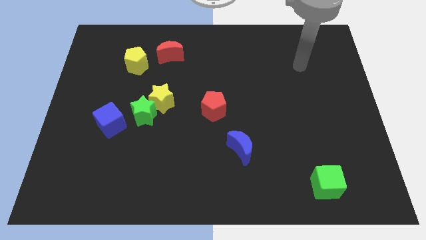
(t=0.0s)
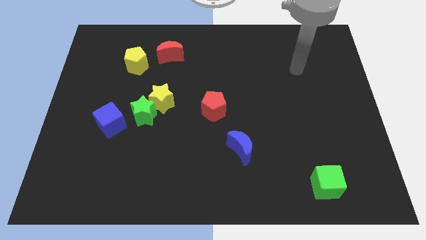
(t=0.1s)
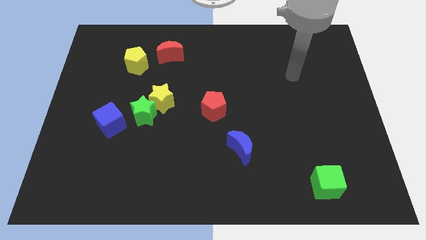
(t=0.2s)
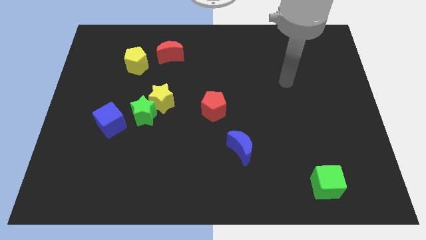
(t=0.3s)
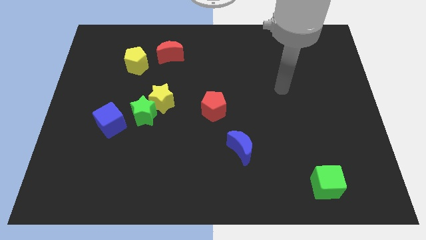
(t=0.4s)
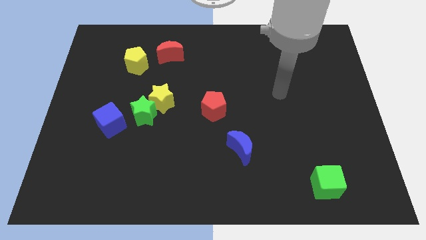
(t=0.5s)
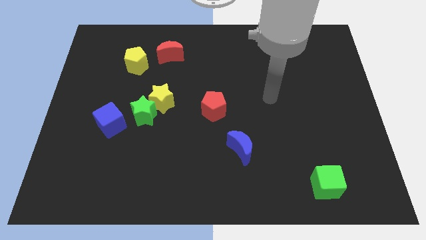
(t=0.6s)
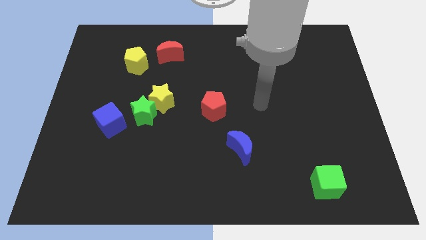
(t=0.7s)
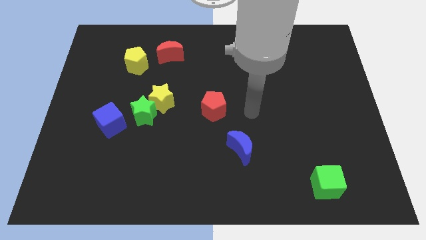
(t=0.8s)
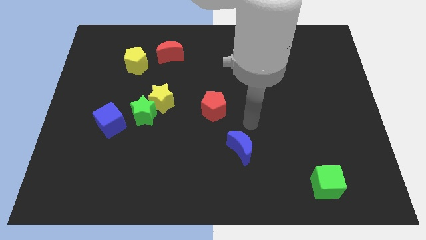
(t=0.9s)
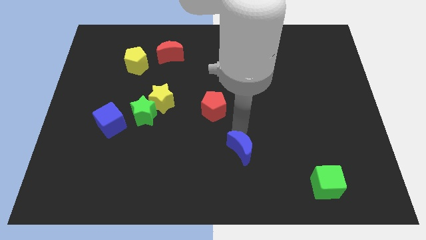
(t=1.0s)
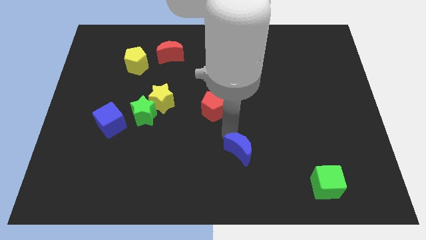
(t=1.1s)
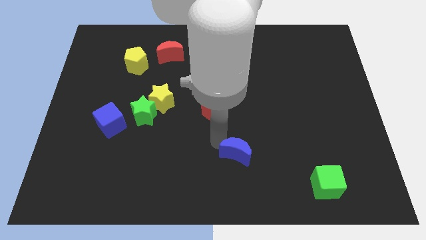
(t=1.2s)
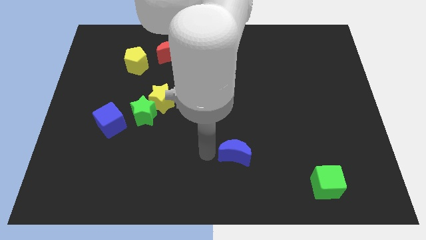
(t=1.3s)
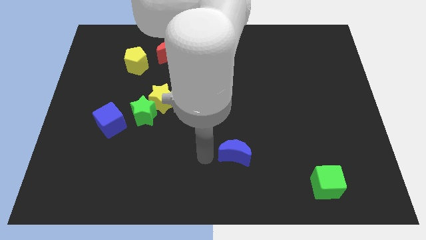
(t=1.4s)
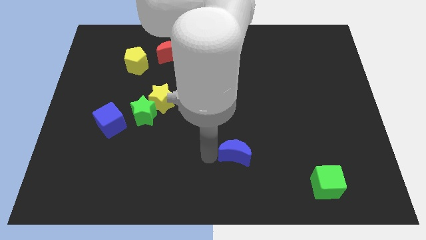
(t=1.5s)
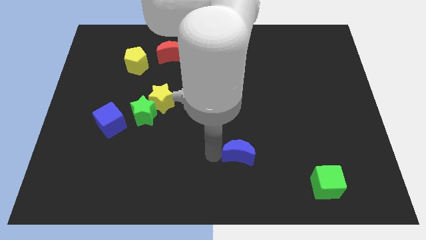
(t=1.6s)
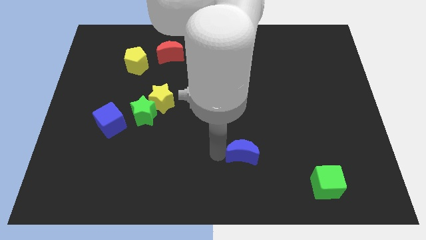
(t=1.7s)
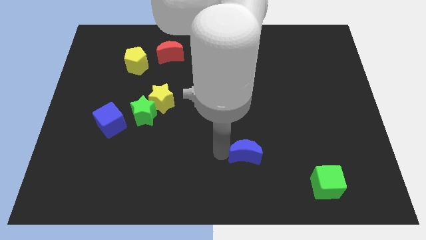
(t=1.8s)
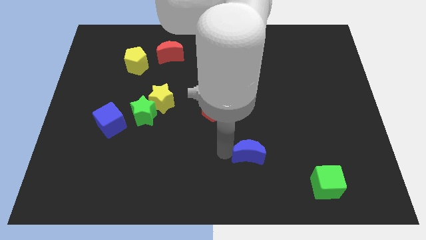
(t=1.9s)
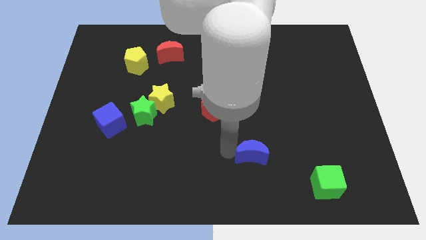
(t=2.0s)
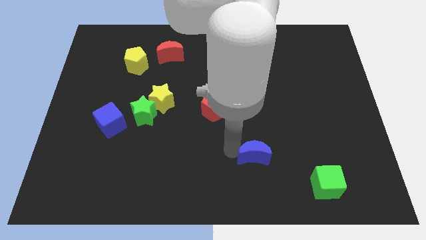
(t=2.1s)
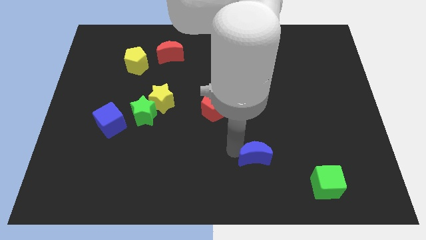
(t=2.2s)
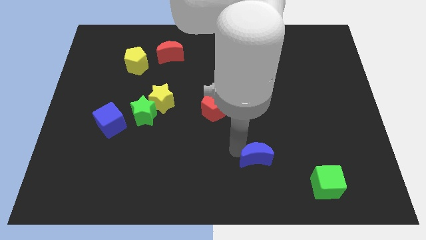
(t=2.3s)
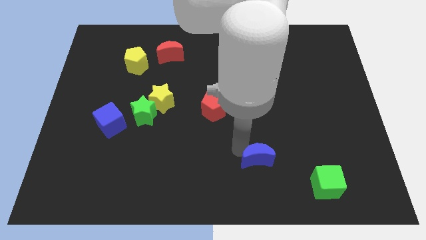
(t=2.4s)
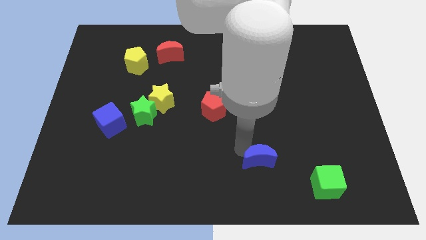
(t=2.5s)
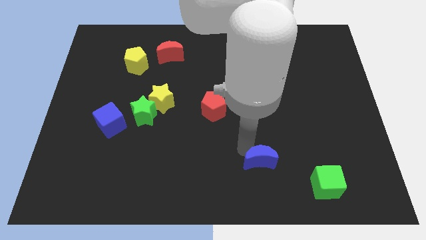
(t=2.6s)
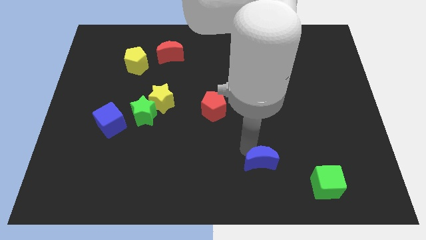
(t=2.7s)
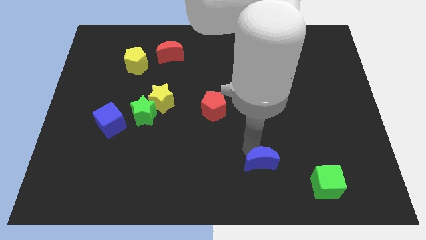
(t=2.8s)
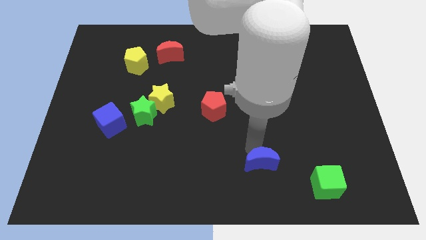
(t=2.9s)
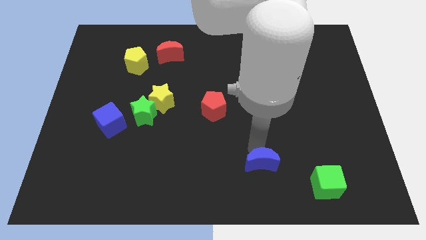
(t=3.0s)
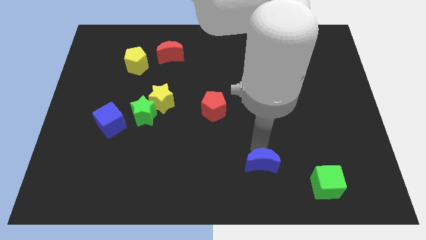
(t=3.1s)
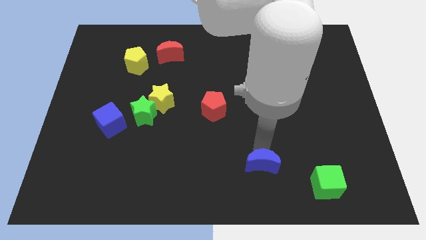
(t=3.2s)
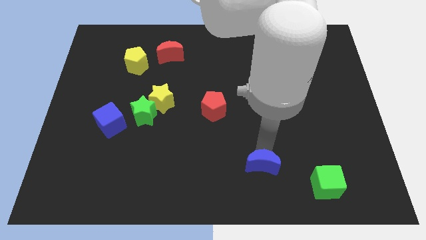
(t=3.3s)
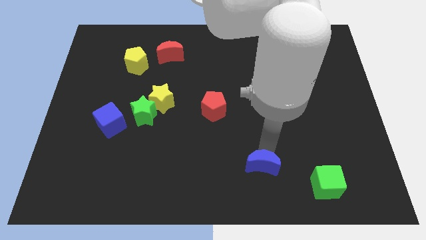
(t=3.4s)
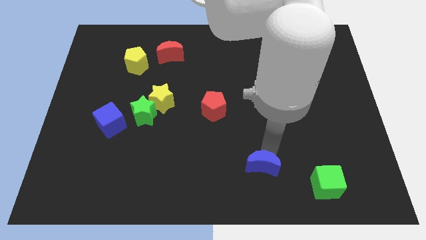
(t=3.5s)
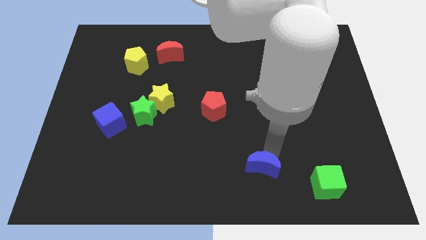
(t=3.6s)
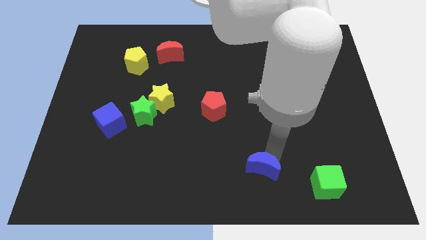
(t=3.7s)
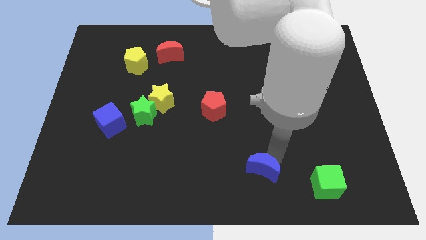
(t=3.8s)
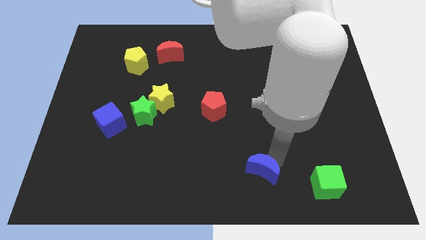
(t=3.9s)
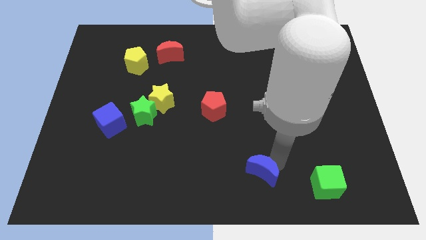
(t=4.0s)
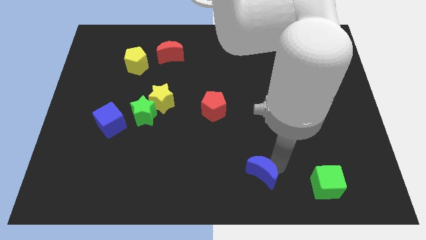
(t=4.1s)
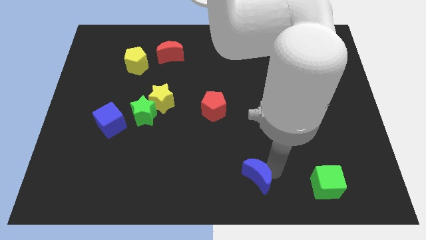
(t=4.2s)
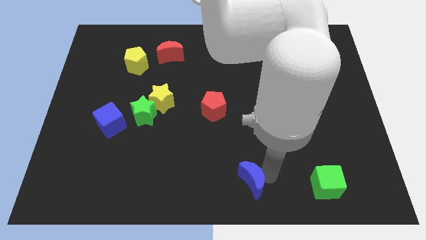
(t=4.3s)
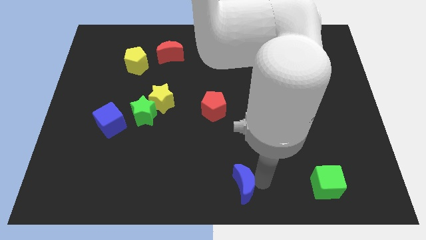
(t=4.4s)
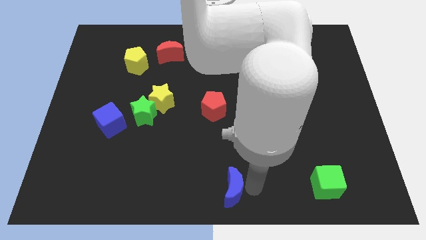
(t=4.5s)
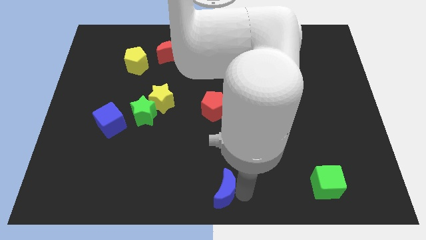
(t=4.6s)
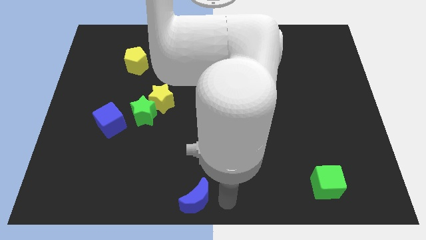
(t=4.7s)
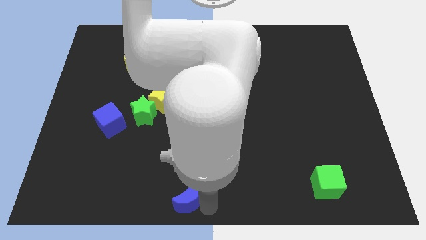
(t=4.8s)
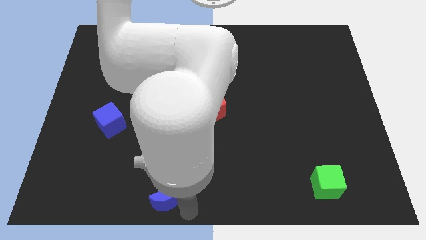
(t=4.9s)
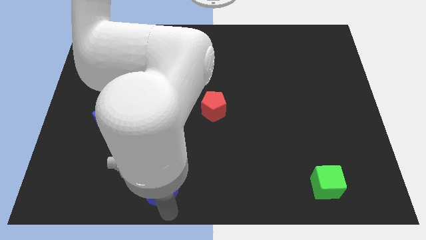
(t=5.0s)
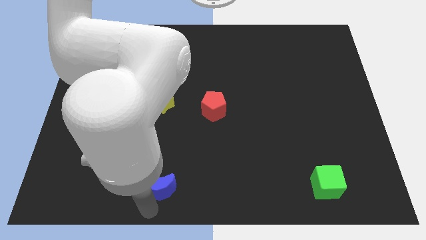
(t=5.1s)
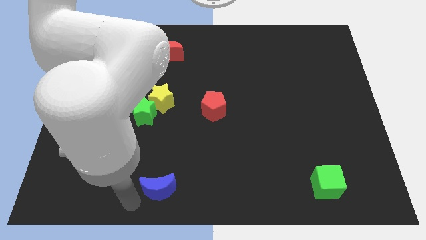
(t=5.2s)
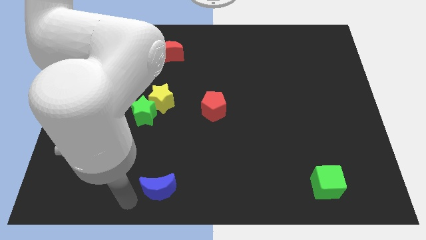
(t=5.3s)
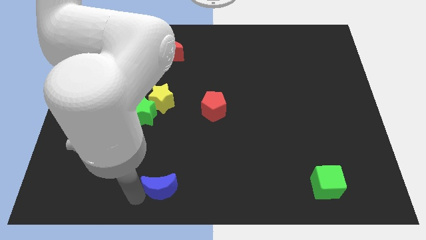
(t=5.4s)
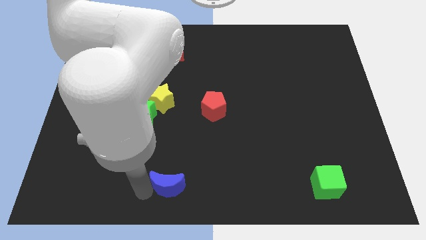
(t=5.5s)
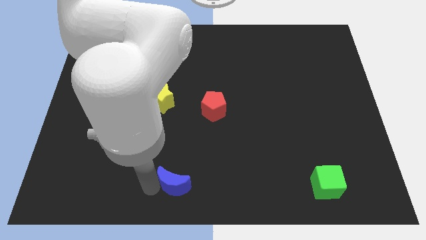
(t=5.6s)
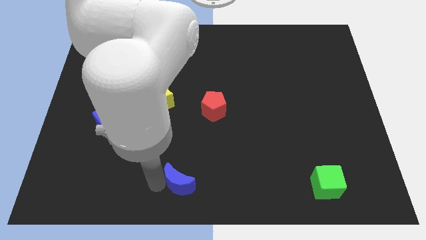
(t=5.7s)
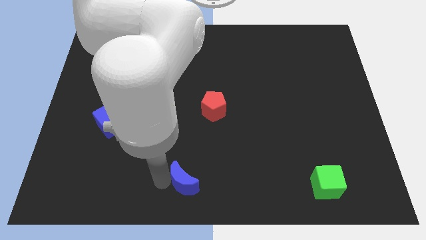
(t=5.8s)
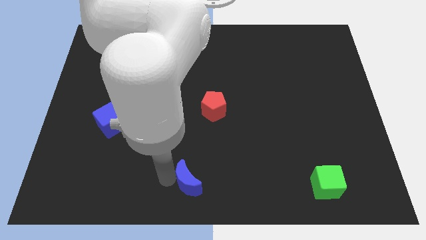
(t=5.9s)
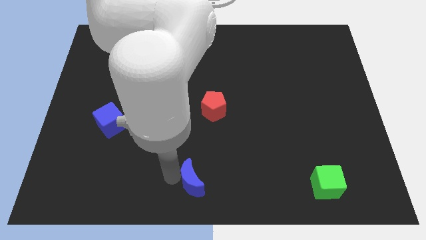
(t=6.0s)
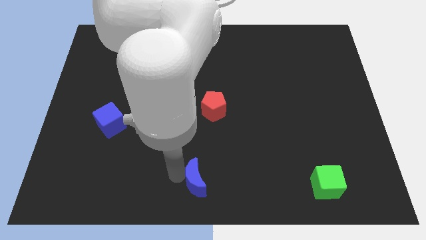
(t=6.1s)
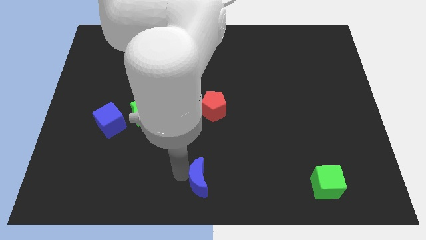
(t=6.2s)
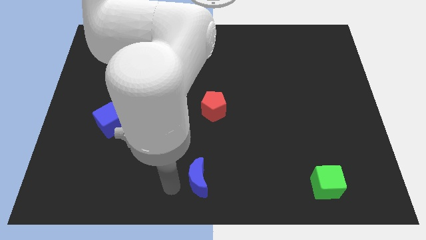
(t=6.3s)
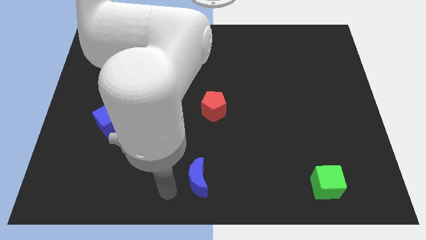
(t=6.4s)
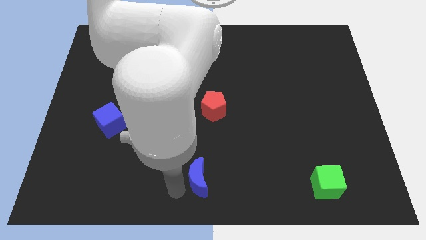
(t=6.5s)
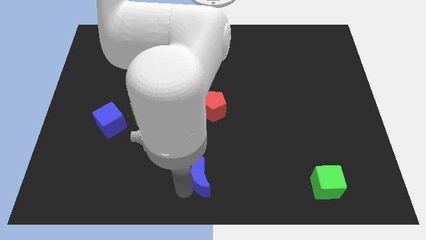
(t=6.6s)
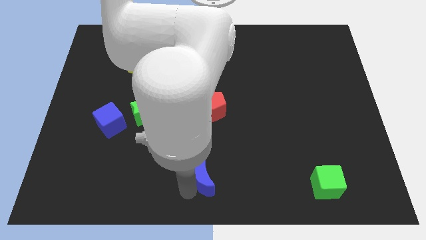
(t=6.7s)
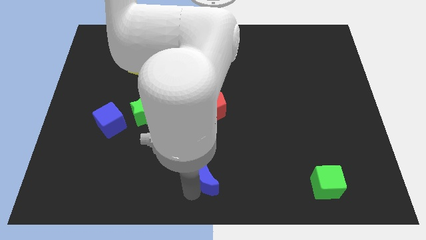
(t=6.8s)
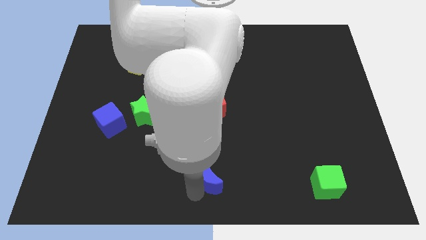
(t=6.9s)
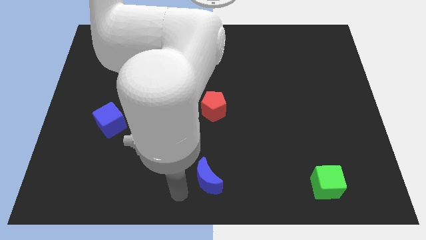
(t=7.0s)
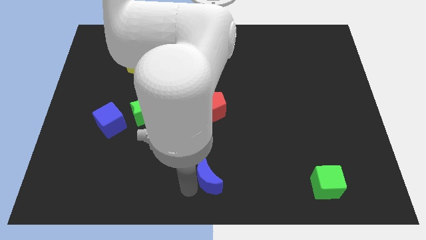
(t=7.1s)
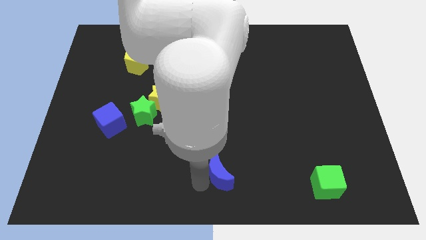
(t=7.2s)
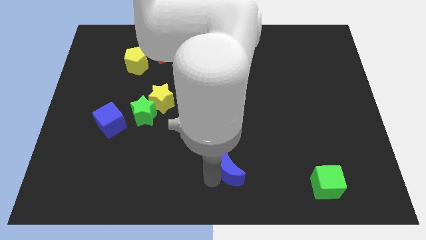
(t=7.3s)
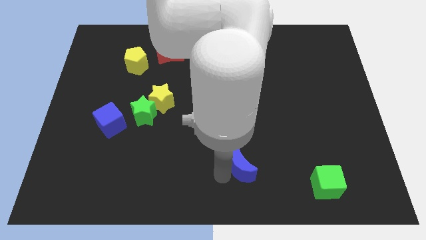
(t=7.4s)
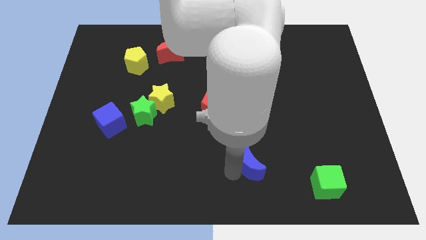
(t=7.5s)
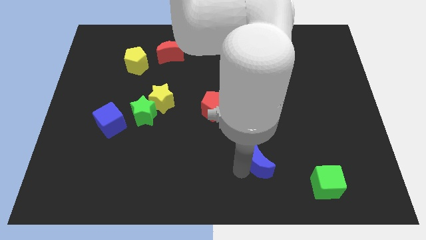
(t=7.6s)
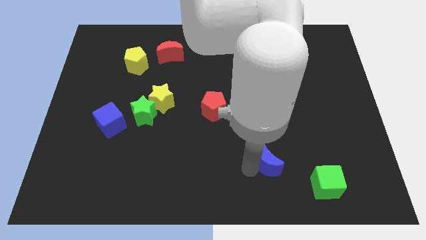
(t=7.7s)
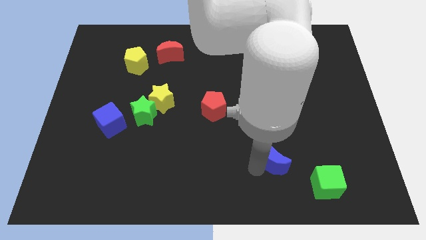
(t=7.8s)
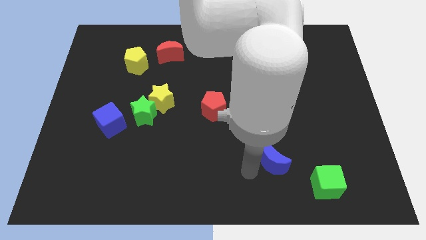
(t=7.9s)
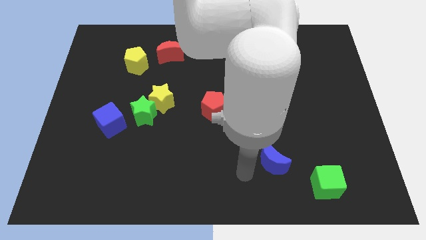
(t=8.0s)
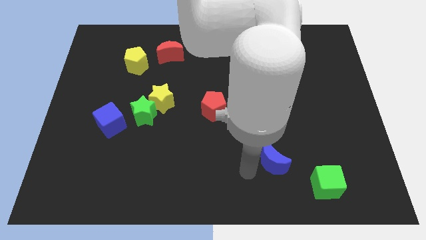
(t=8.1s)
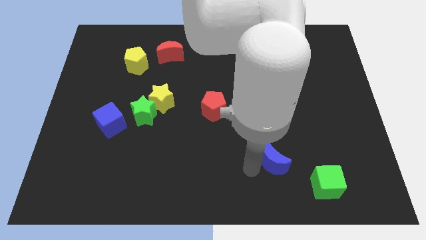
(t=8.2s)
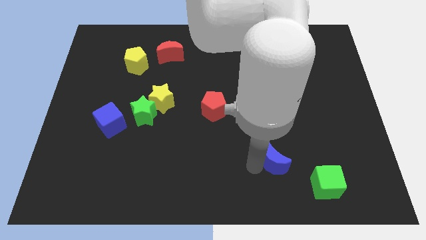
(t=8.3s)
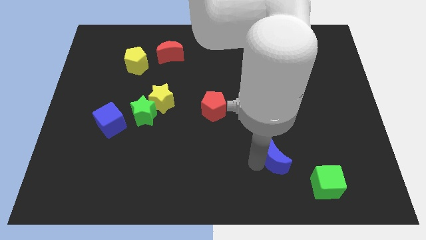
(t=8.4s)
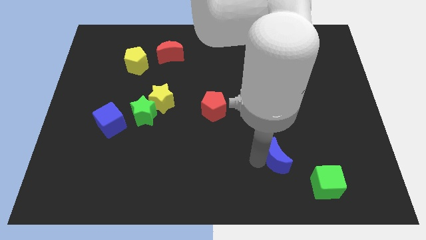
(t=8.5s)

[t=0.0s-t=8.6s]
move the blue moon to the right slightly
